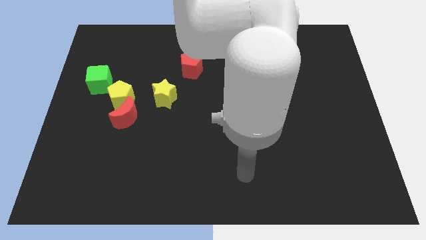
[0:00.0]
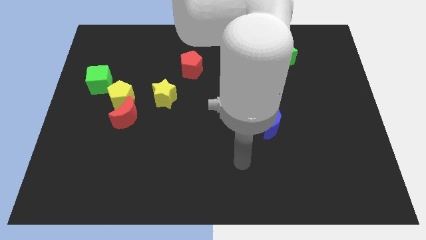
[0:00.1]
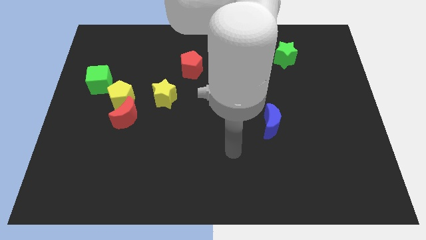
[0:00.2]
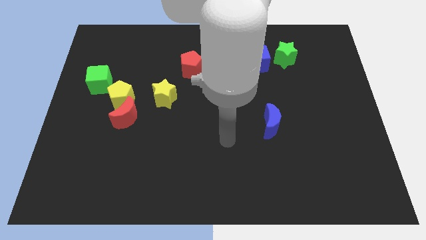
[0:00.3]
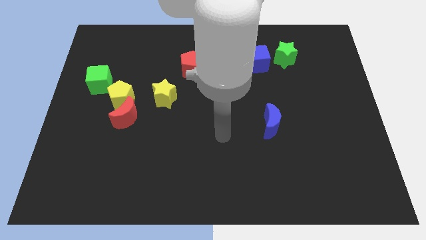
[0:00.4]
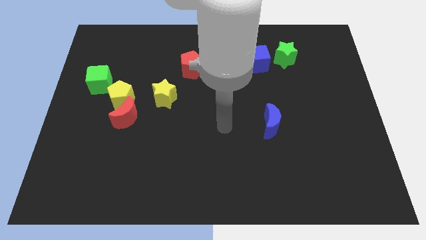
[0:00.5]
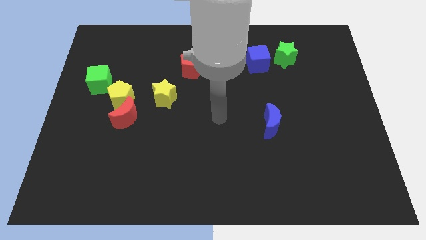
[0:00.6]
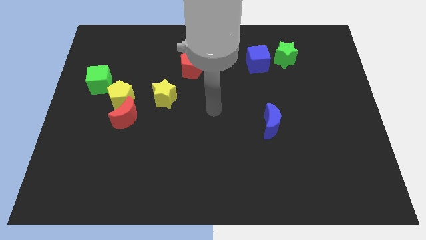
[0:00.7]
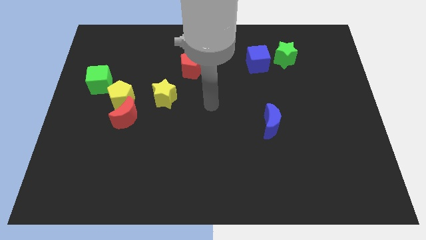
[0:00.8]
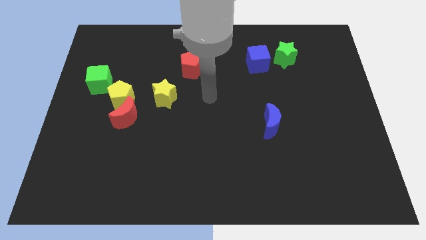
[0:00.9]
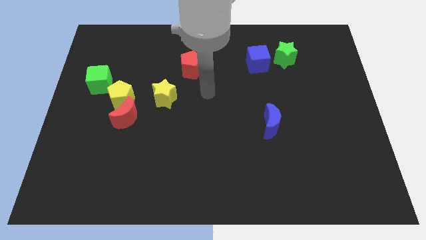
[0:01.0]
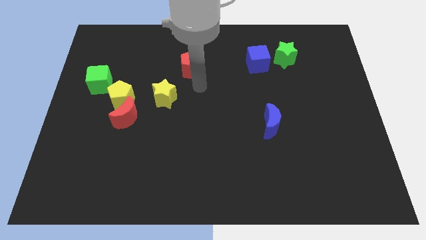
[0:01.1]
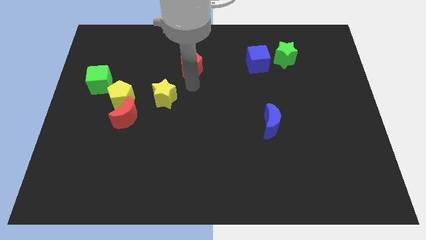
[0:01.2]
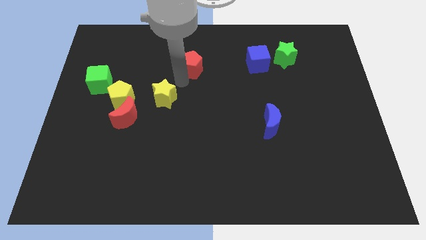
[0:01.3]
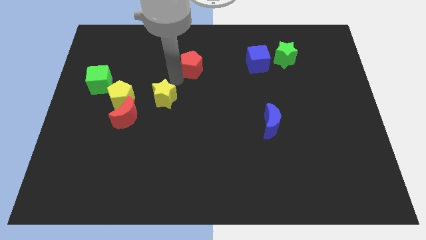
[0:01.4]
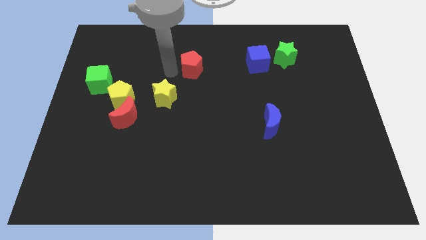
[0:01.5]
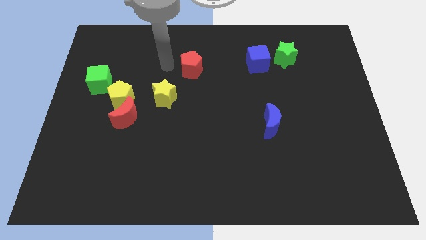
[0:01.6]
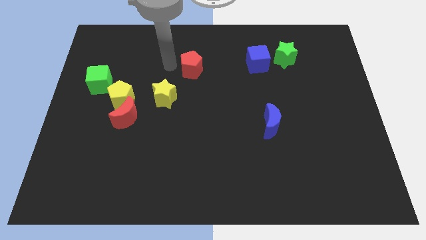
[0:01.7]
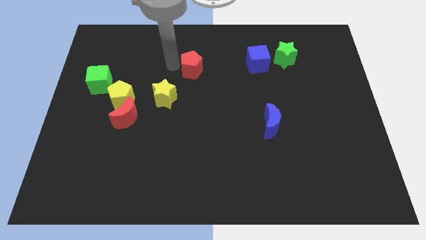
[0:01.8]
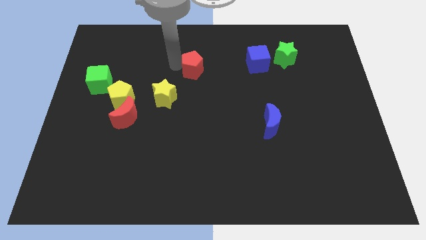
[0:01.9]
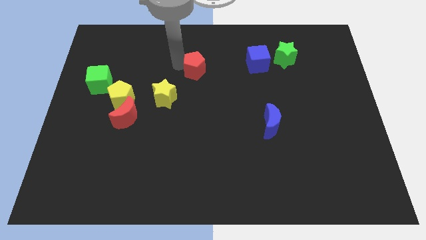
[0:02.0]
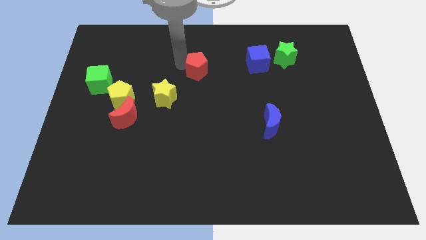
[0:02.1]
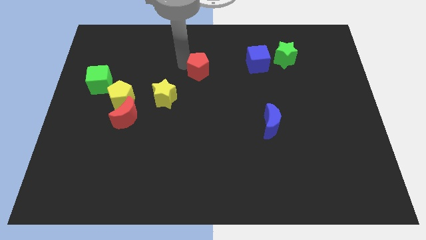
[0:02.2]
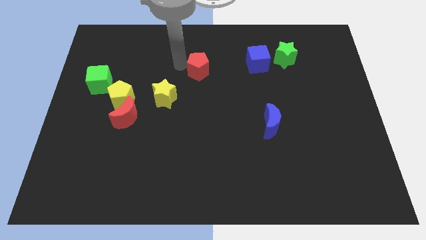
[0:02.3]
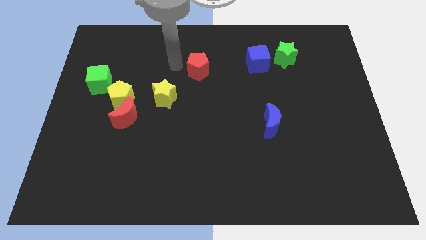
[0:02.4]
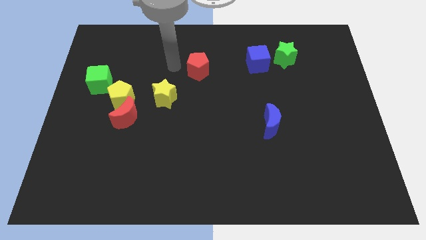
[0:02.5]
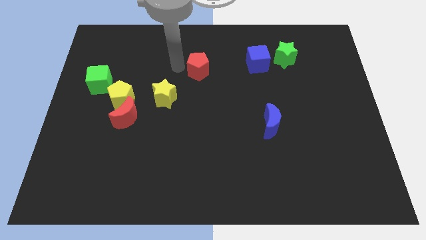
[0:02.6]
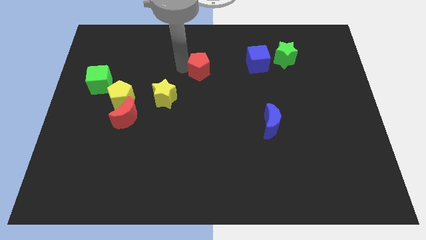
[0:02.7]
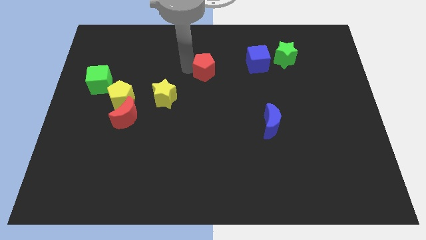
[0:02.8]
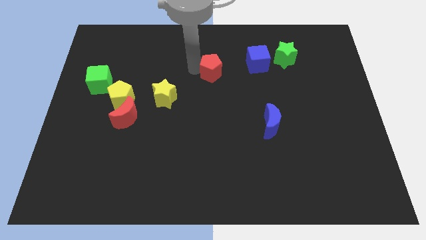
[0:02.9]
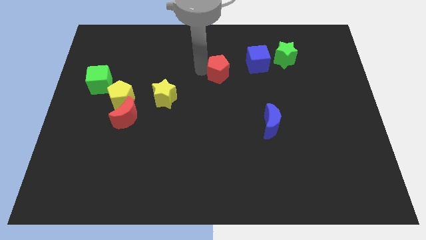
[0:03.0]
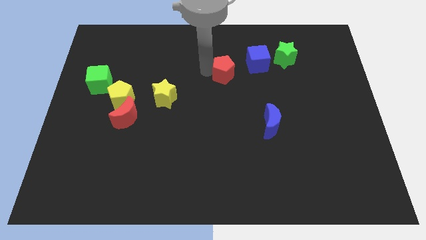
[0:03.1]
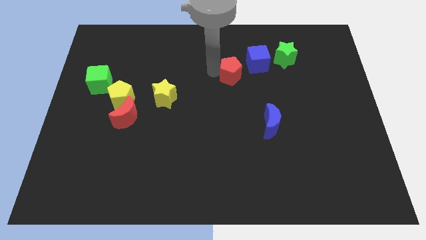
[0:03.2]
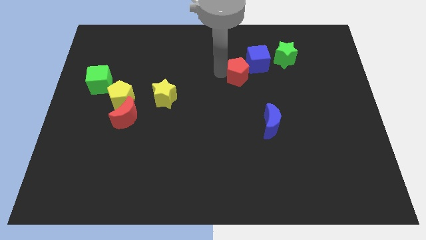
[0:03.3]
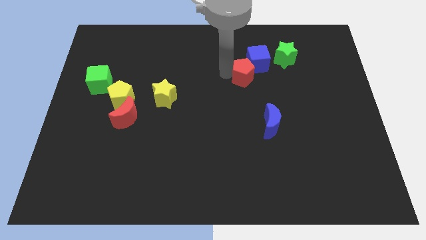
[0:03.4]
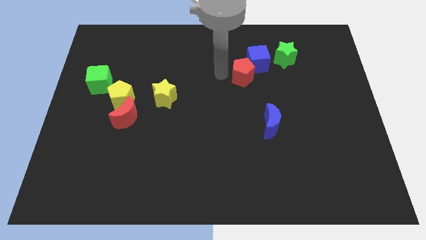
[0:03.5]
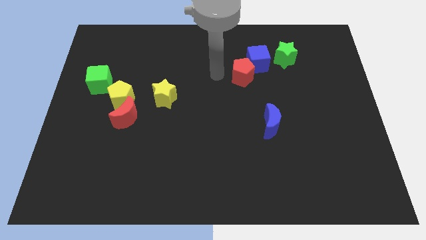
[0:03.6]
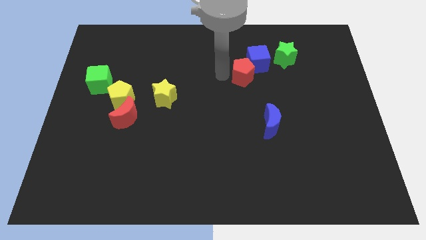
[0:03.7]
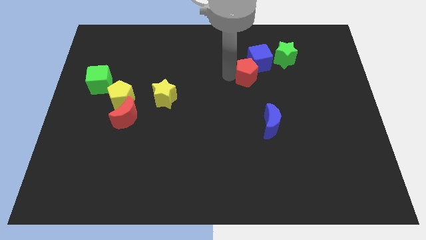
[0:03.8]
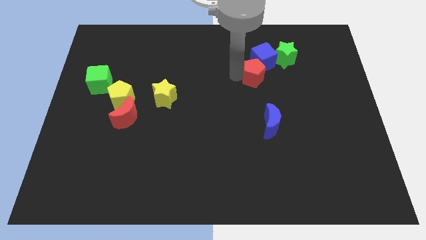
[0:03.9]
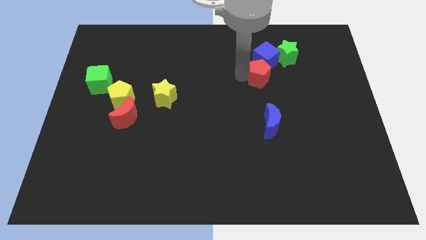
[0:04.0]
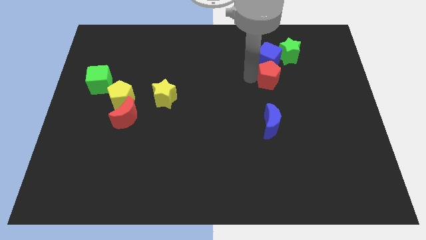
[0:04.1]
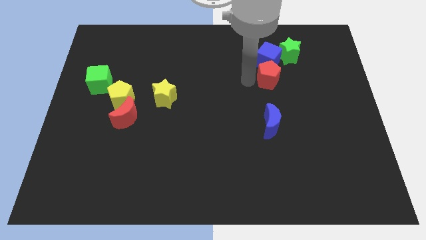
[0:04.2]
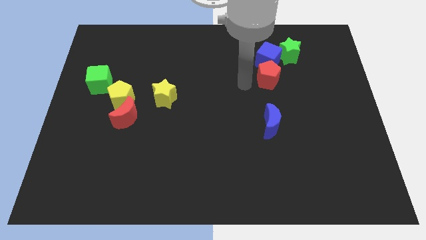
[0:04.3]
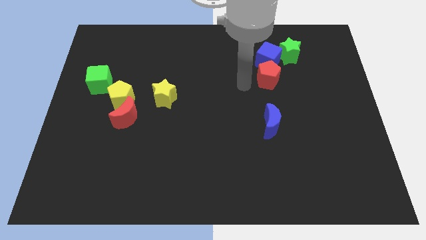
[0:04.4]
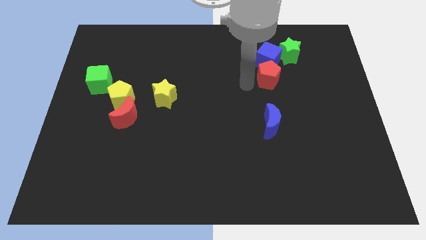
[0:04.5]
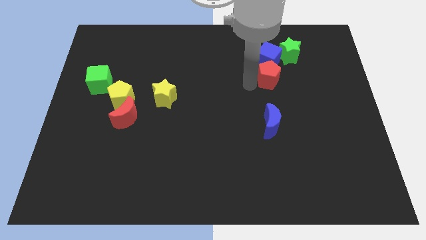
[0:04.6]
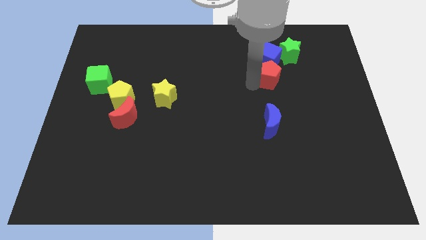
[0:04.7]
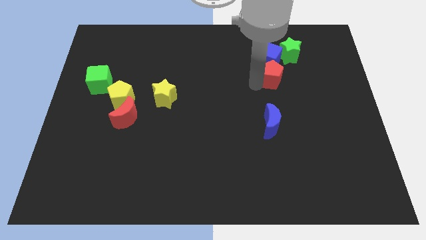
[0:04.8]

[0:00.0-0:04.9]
slide the red pentagon to the right

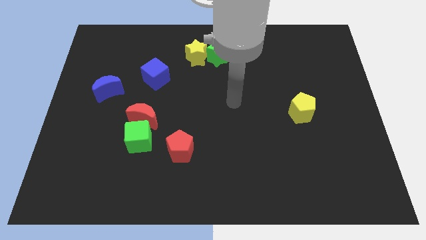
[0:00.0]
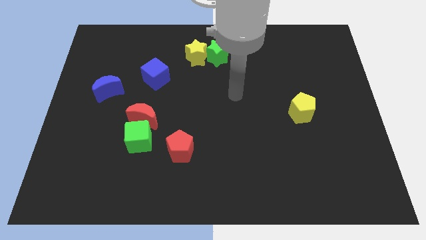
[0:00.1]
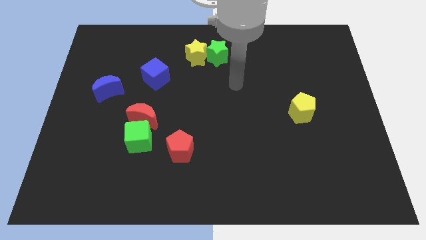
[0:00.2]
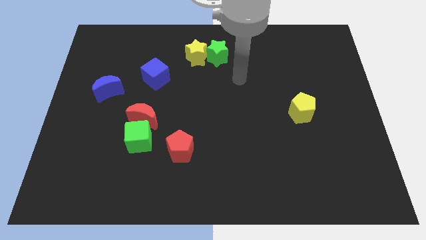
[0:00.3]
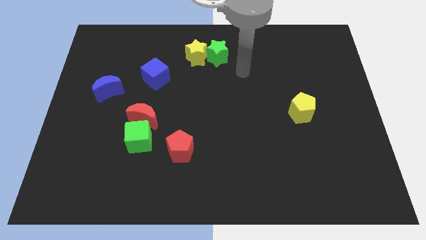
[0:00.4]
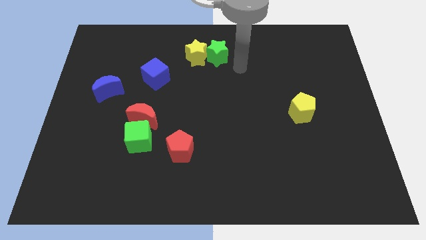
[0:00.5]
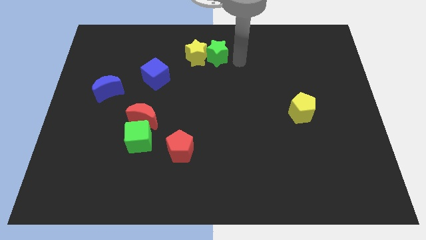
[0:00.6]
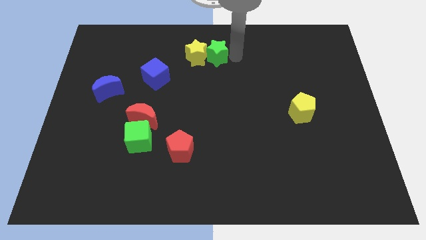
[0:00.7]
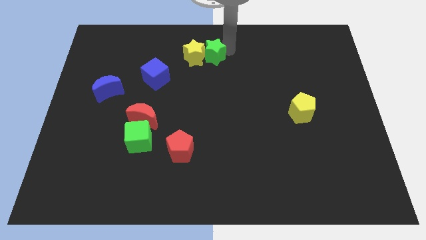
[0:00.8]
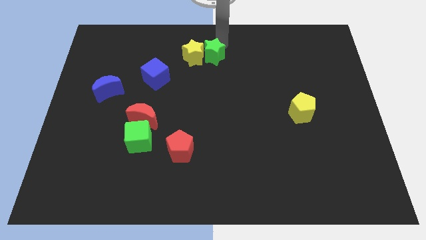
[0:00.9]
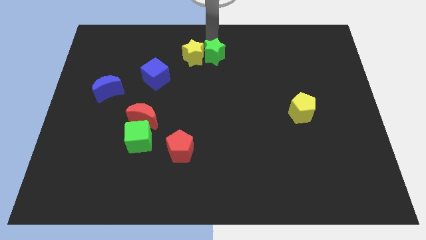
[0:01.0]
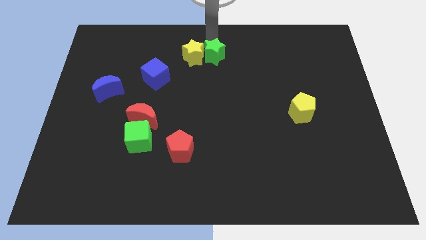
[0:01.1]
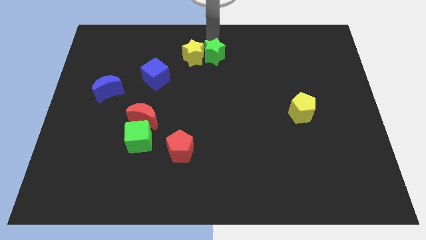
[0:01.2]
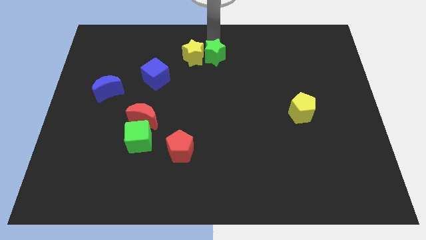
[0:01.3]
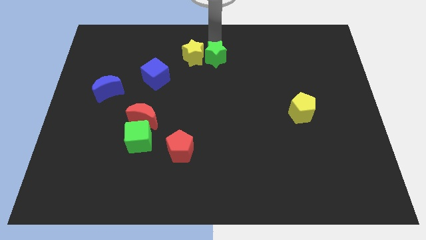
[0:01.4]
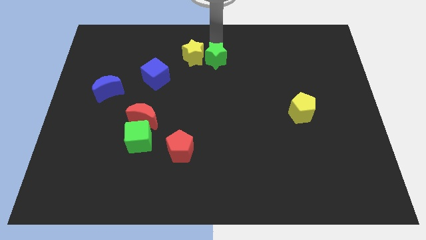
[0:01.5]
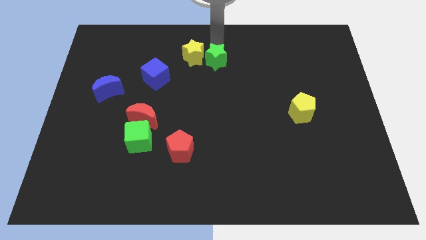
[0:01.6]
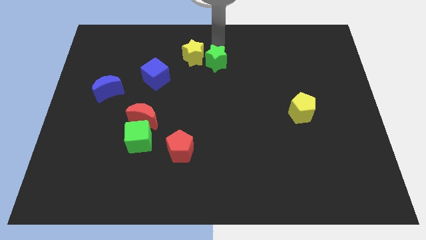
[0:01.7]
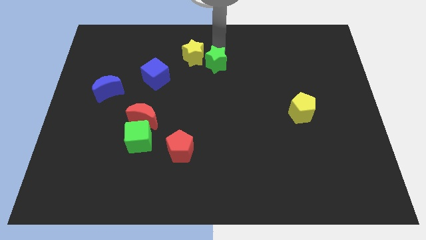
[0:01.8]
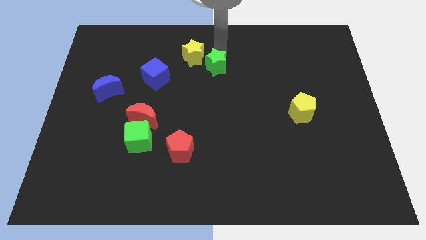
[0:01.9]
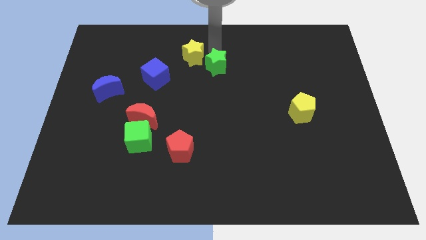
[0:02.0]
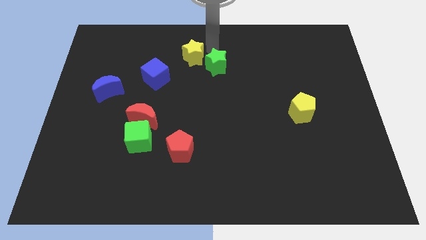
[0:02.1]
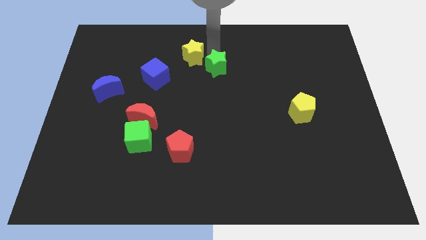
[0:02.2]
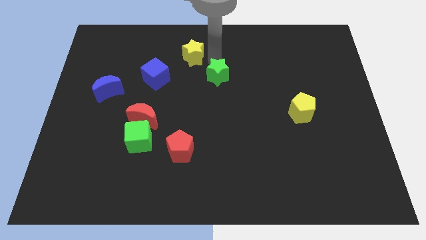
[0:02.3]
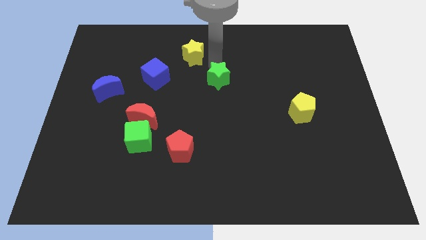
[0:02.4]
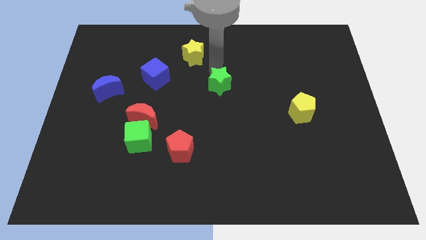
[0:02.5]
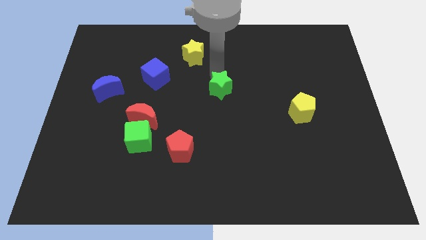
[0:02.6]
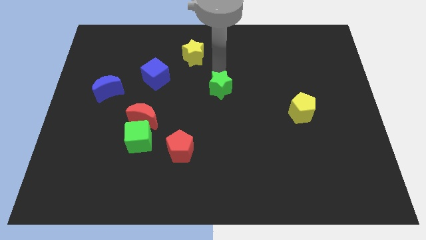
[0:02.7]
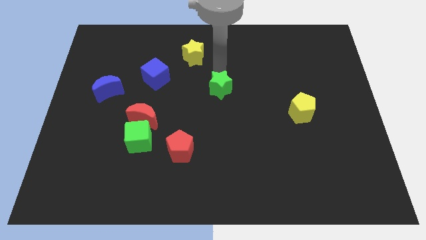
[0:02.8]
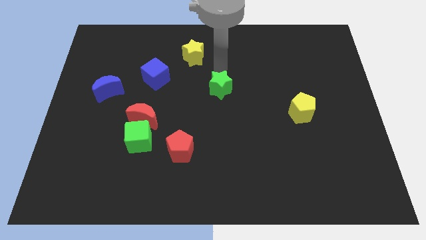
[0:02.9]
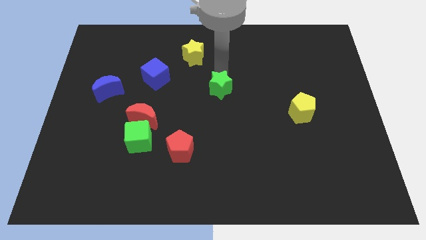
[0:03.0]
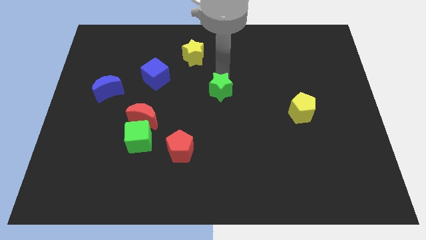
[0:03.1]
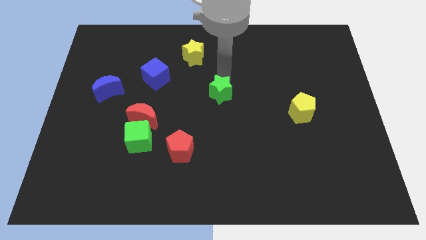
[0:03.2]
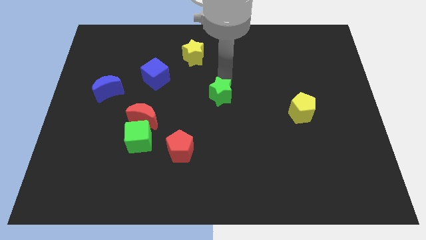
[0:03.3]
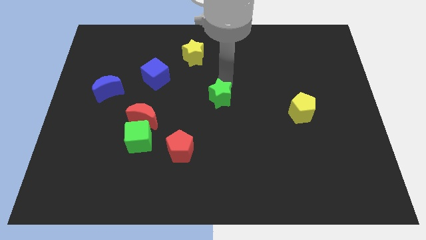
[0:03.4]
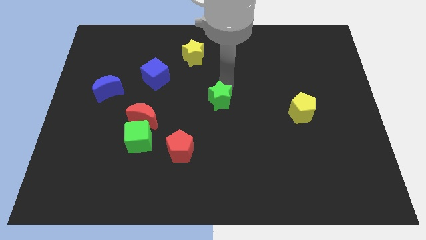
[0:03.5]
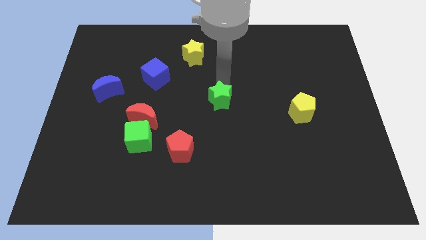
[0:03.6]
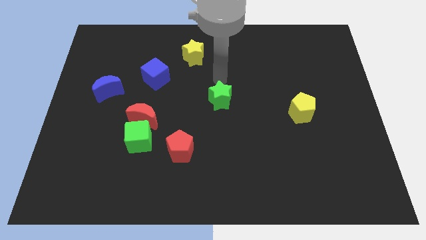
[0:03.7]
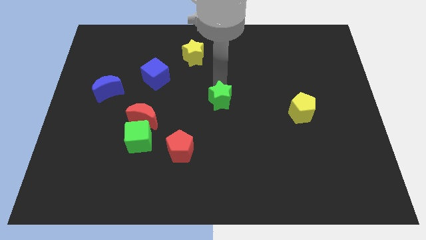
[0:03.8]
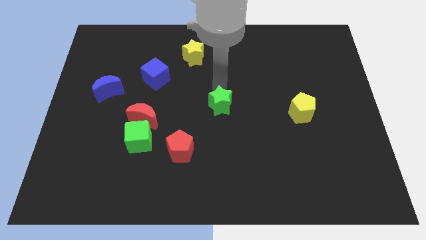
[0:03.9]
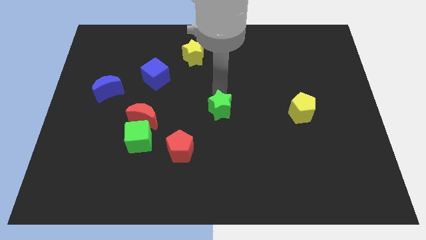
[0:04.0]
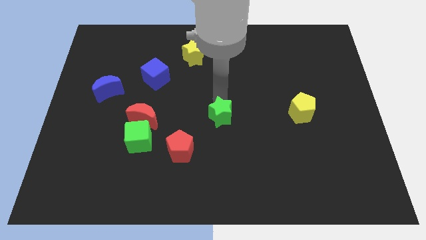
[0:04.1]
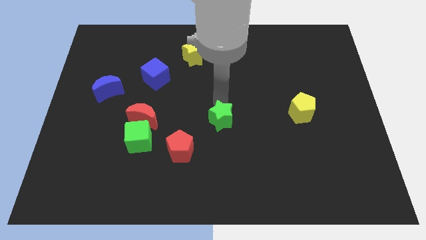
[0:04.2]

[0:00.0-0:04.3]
move the green star downwards
